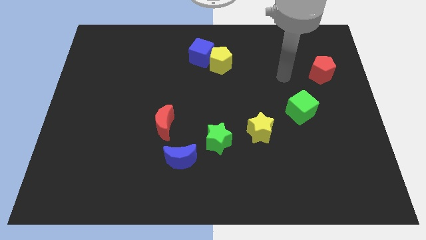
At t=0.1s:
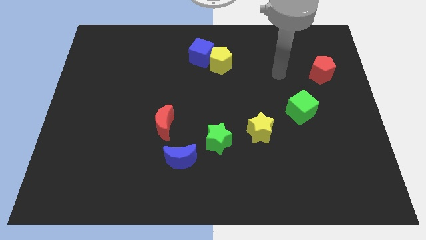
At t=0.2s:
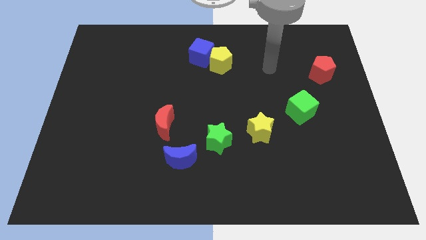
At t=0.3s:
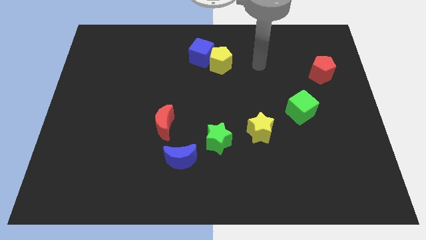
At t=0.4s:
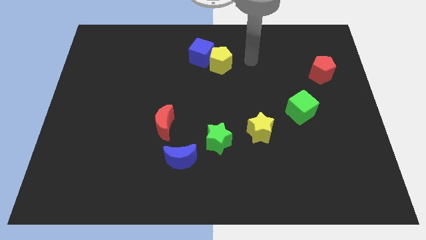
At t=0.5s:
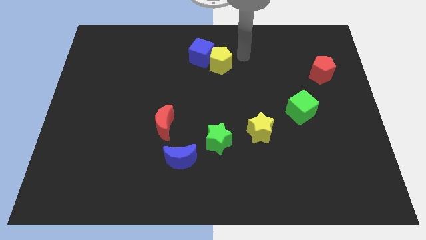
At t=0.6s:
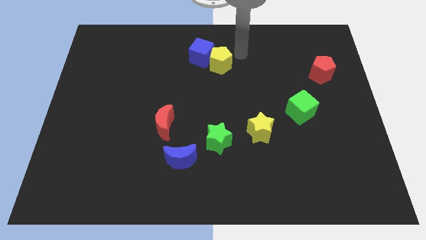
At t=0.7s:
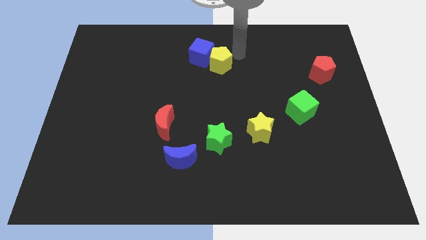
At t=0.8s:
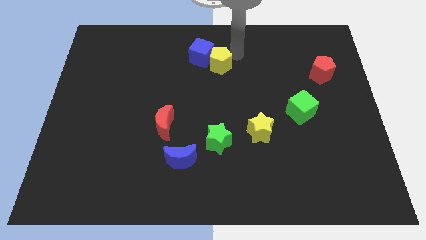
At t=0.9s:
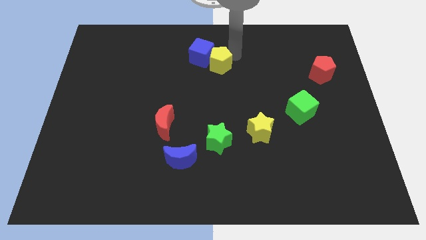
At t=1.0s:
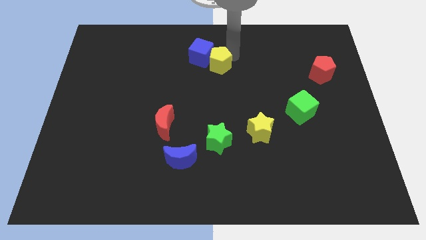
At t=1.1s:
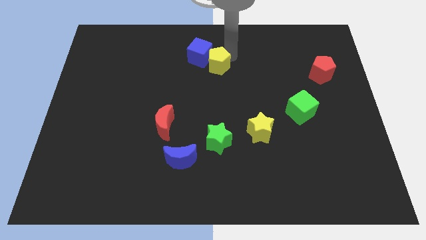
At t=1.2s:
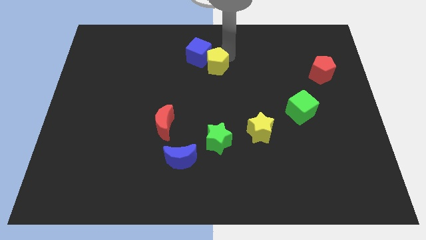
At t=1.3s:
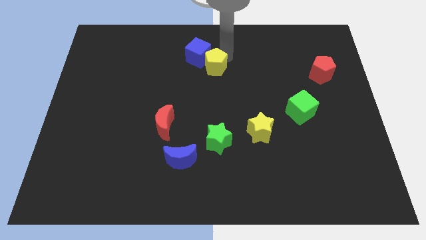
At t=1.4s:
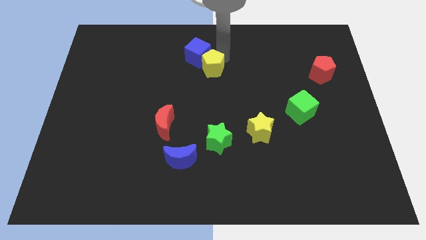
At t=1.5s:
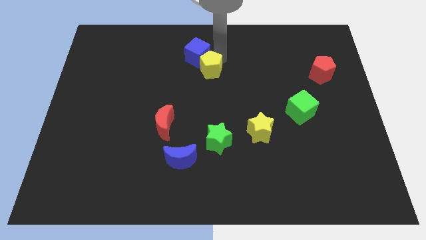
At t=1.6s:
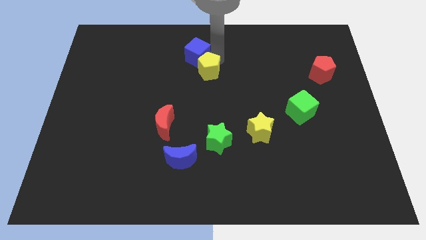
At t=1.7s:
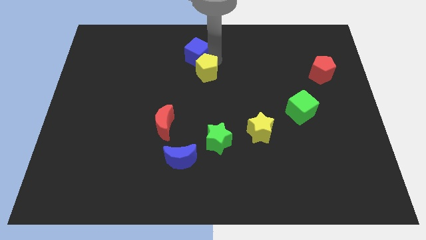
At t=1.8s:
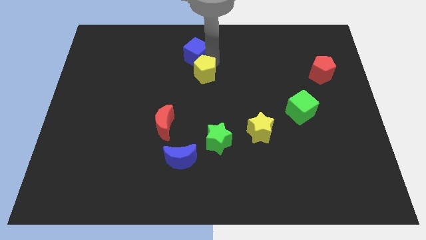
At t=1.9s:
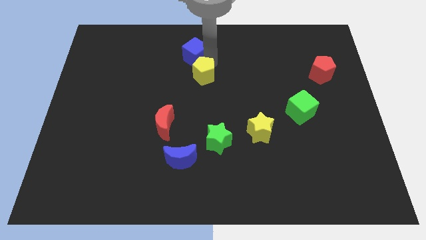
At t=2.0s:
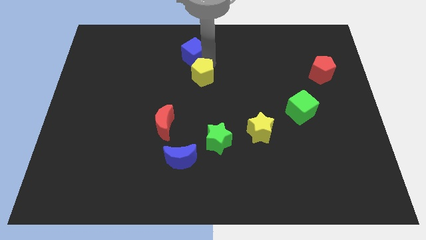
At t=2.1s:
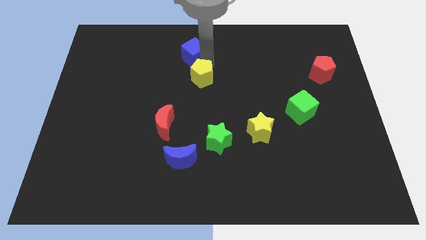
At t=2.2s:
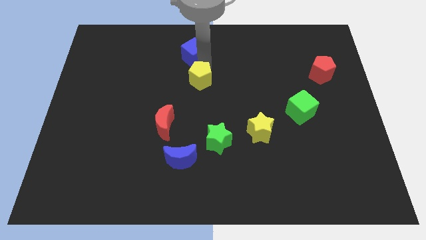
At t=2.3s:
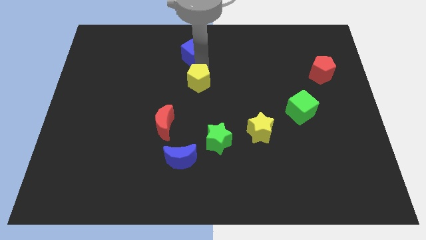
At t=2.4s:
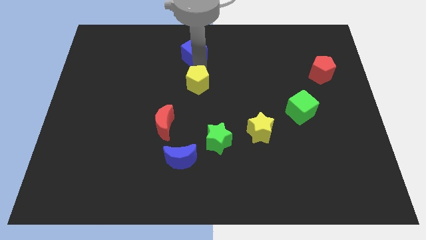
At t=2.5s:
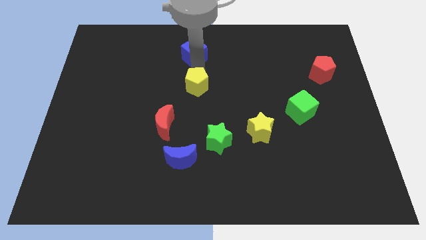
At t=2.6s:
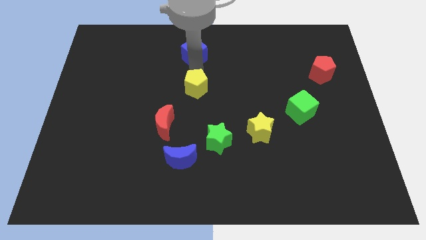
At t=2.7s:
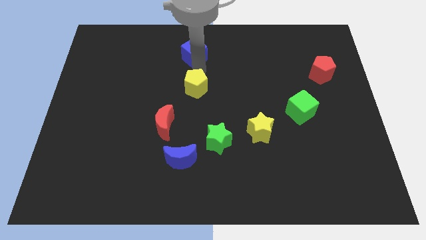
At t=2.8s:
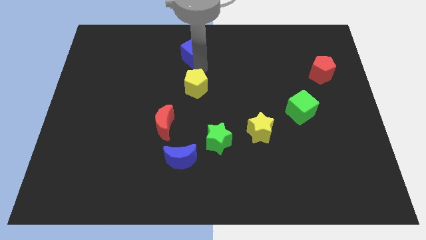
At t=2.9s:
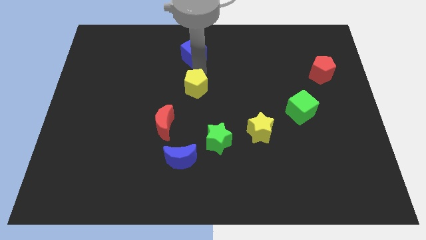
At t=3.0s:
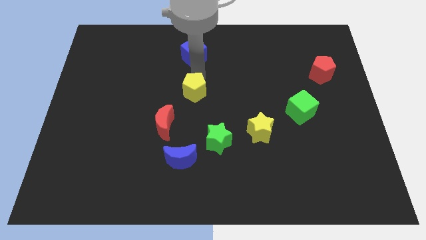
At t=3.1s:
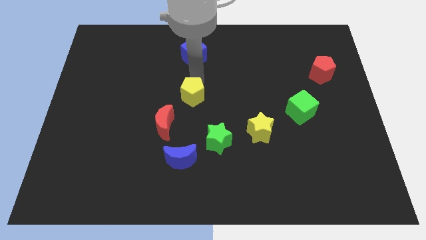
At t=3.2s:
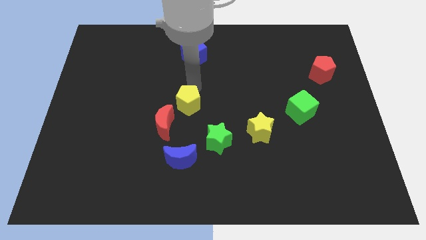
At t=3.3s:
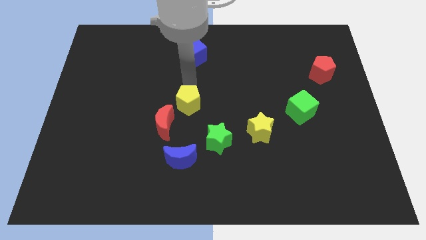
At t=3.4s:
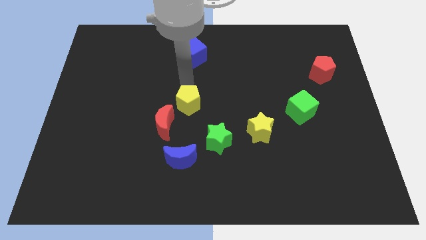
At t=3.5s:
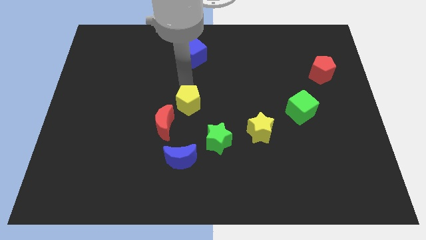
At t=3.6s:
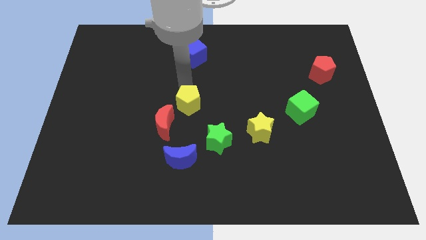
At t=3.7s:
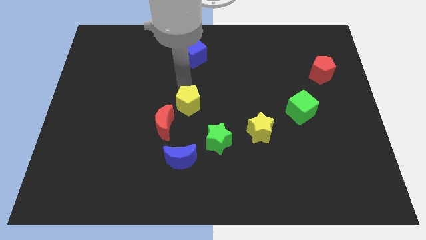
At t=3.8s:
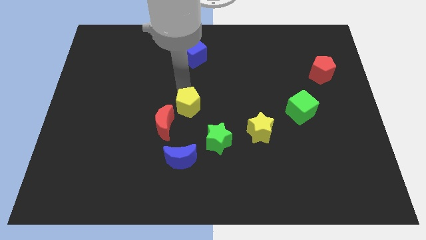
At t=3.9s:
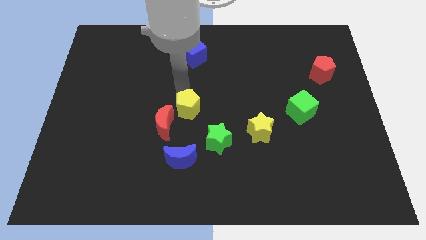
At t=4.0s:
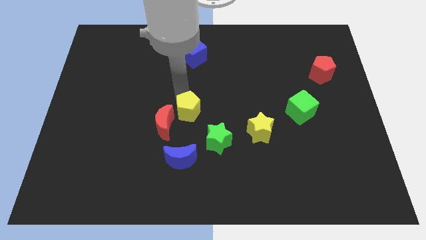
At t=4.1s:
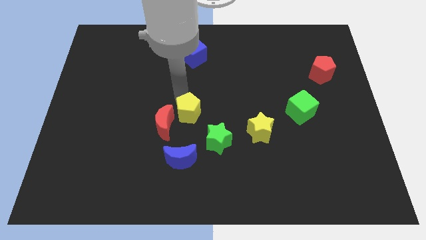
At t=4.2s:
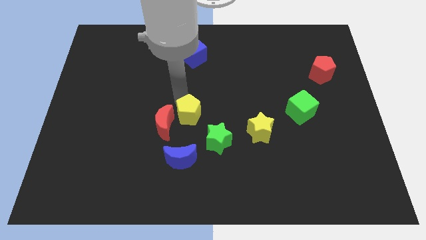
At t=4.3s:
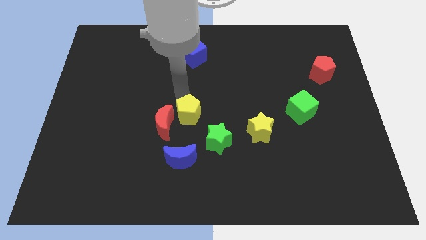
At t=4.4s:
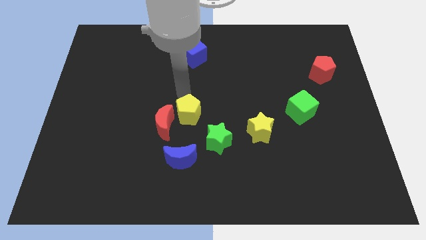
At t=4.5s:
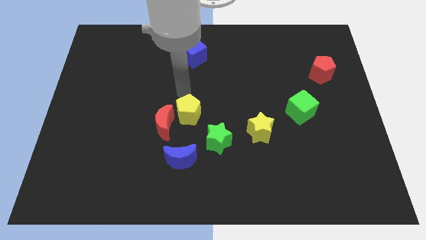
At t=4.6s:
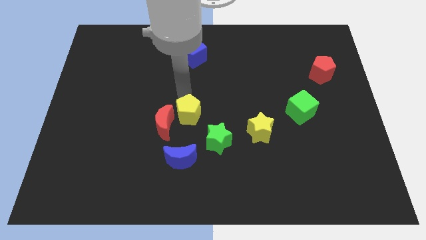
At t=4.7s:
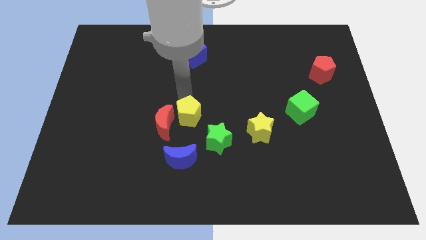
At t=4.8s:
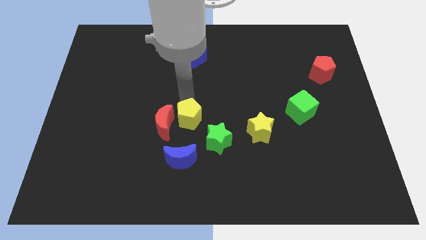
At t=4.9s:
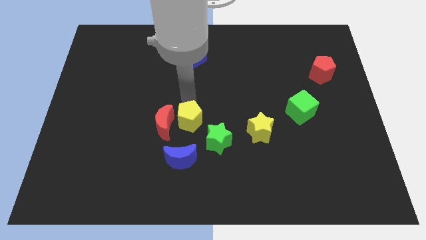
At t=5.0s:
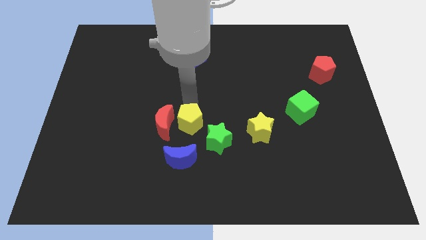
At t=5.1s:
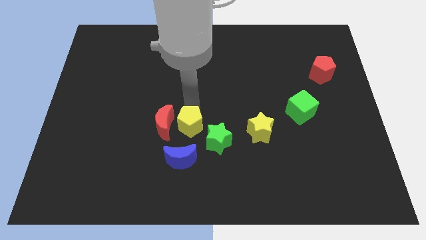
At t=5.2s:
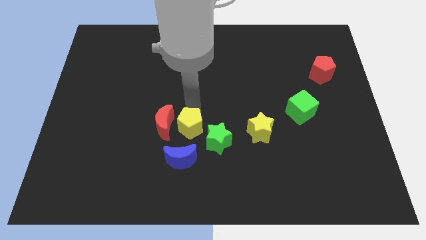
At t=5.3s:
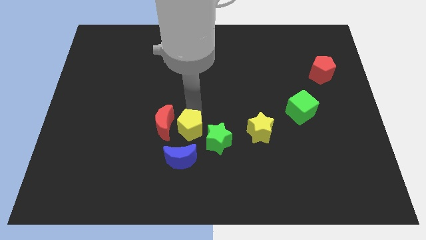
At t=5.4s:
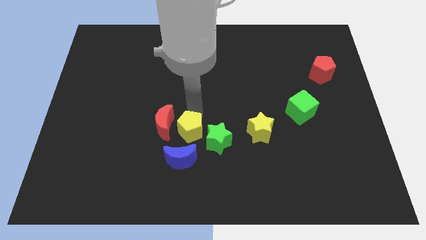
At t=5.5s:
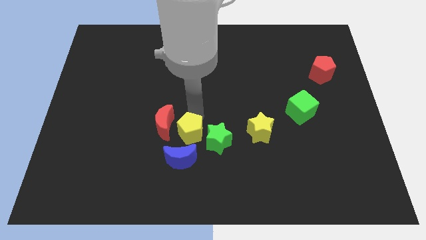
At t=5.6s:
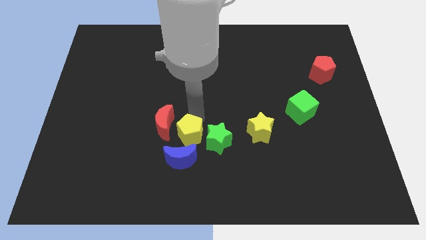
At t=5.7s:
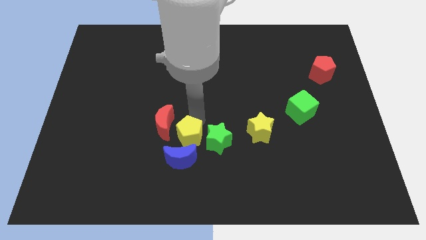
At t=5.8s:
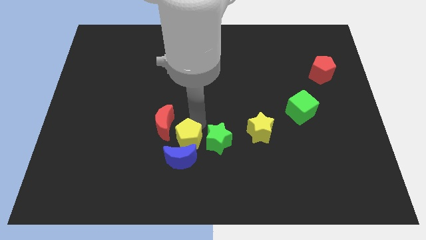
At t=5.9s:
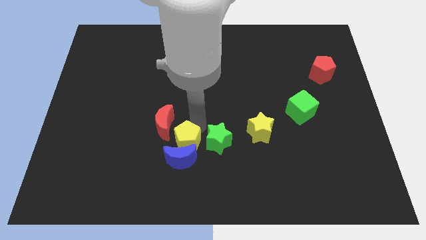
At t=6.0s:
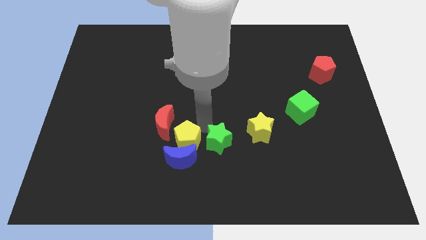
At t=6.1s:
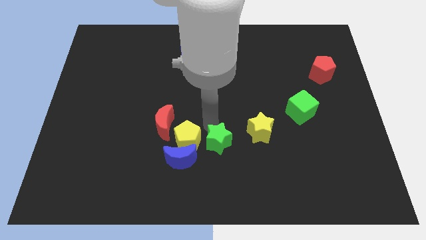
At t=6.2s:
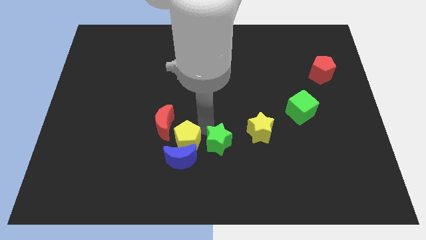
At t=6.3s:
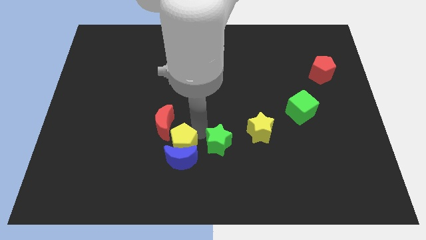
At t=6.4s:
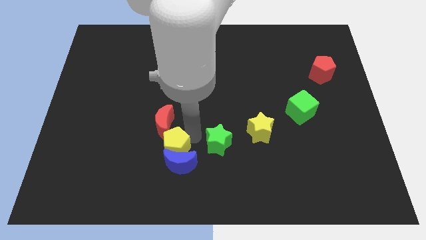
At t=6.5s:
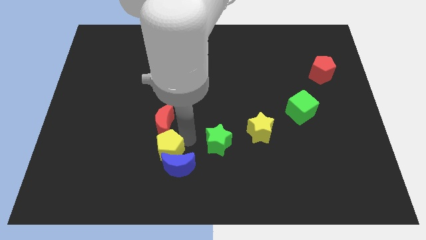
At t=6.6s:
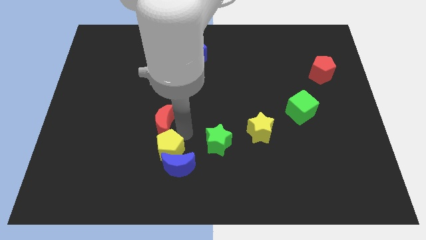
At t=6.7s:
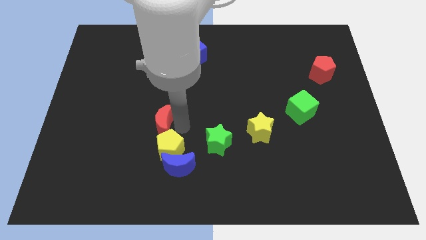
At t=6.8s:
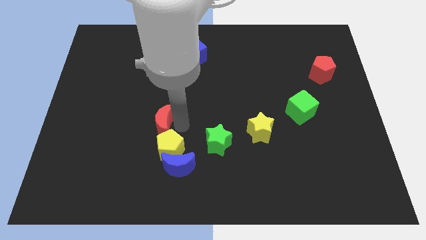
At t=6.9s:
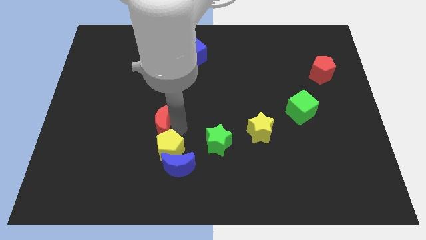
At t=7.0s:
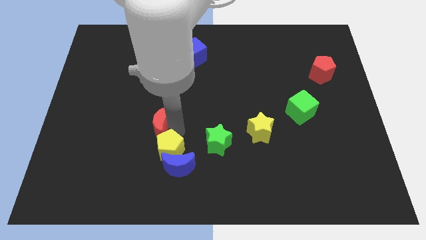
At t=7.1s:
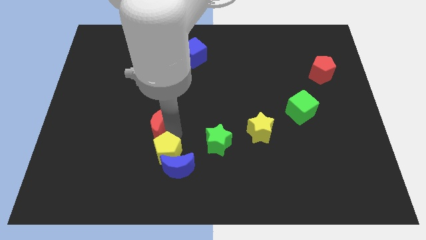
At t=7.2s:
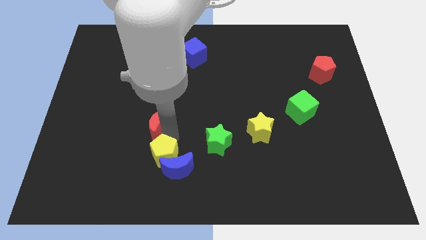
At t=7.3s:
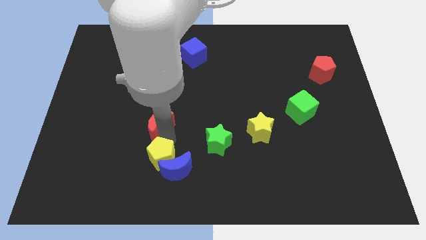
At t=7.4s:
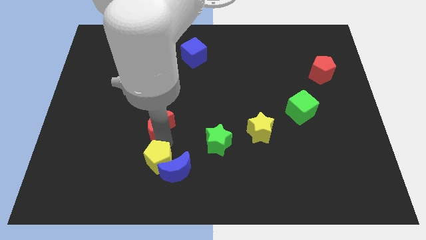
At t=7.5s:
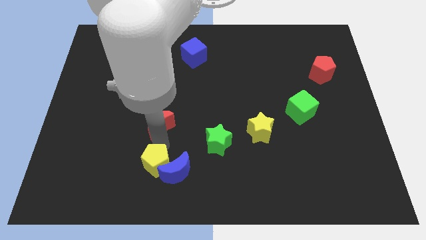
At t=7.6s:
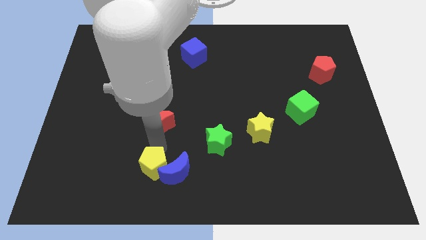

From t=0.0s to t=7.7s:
slide the yellow pentagon to the bottom left side of the blue moon

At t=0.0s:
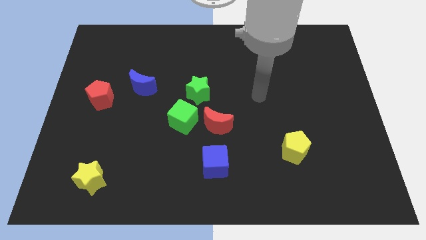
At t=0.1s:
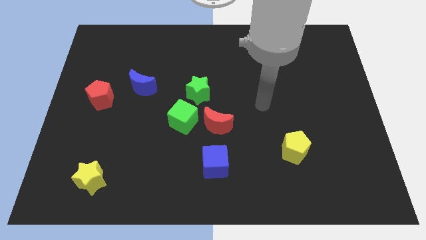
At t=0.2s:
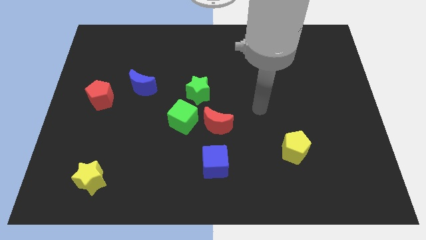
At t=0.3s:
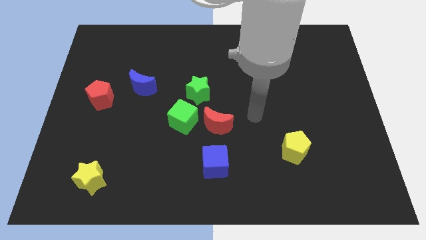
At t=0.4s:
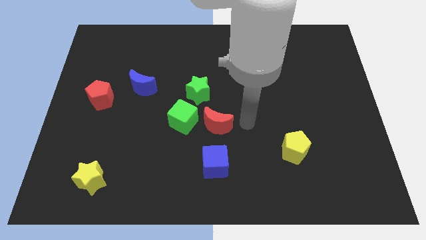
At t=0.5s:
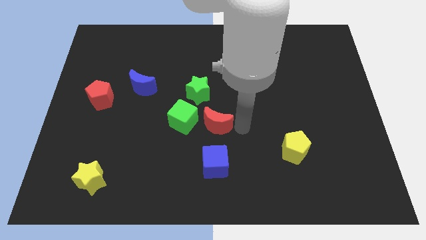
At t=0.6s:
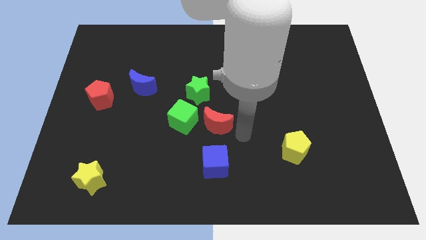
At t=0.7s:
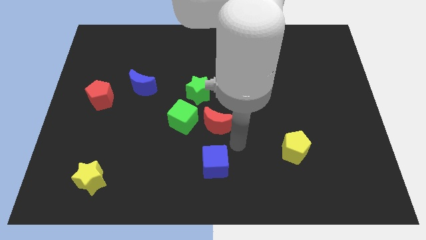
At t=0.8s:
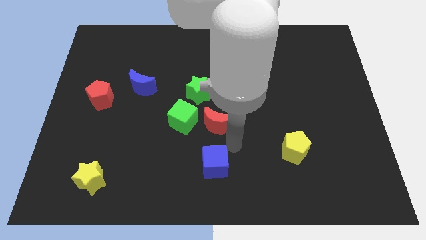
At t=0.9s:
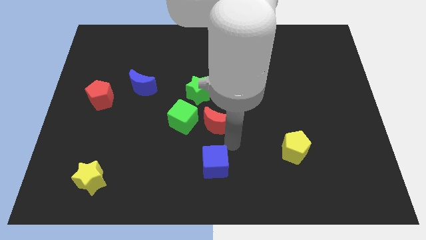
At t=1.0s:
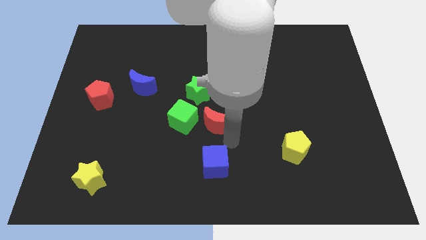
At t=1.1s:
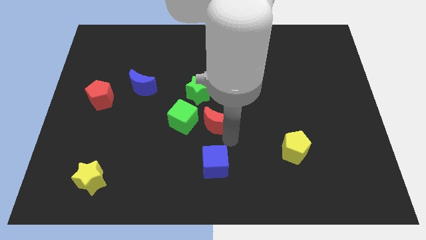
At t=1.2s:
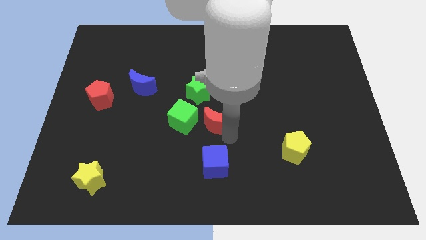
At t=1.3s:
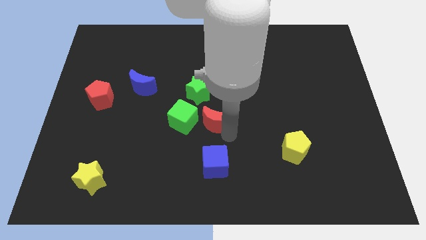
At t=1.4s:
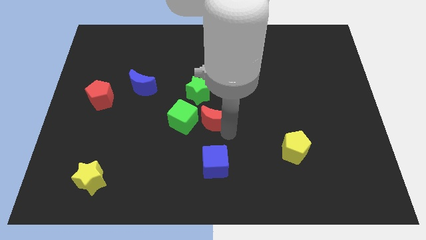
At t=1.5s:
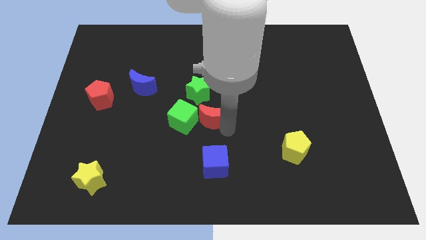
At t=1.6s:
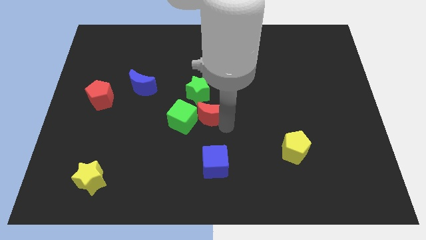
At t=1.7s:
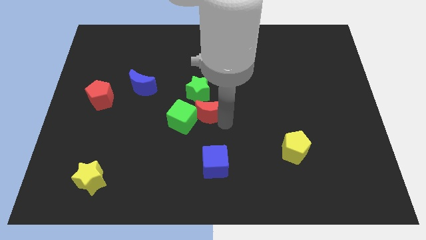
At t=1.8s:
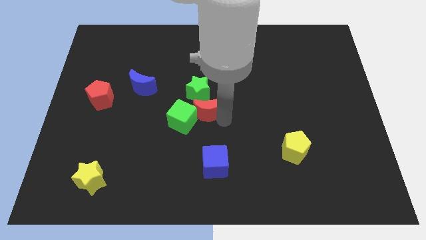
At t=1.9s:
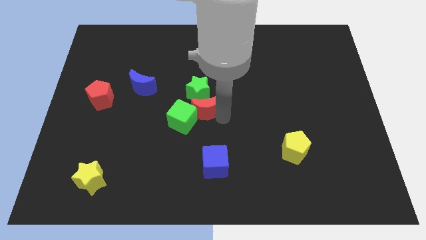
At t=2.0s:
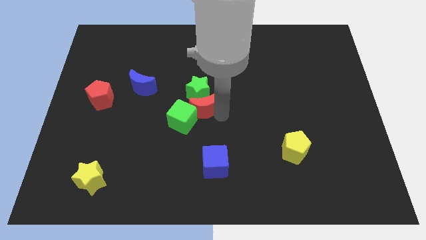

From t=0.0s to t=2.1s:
push the red moon to the bottom left side of the green star
